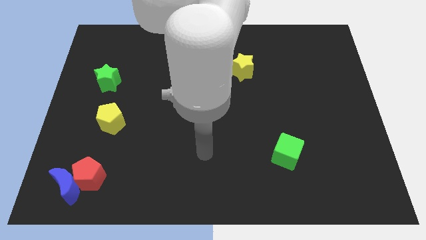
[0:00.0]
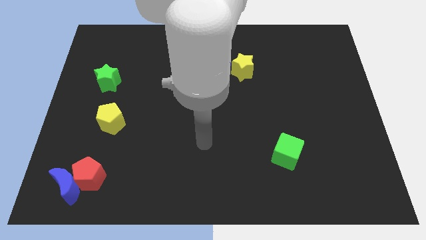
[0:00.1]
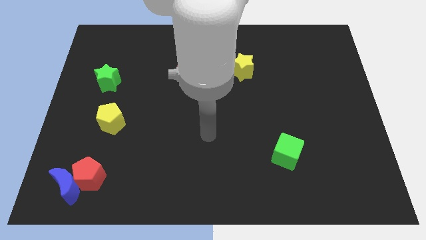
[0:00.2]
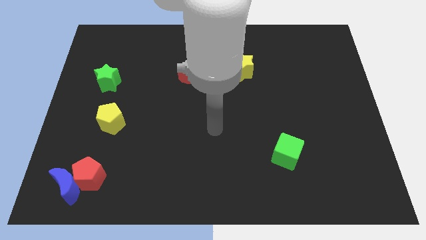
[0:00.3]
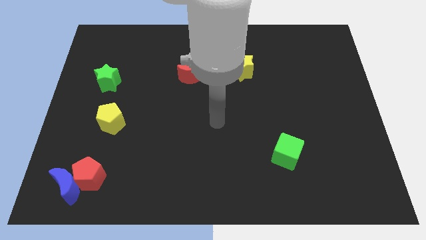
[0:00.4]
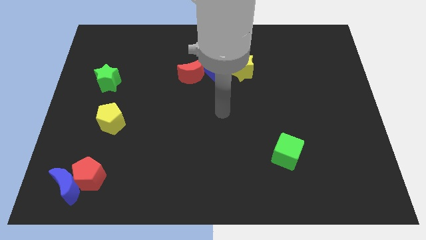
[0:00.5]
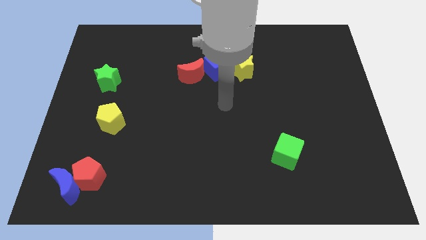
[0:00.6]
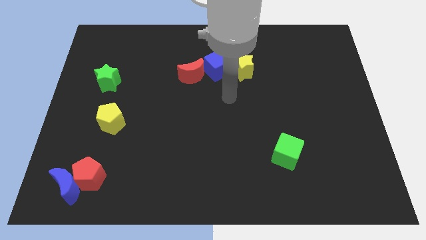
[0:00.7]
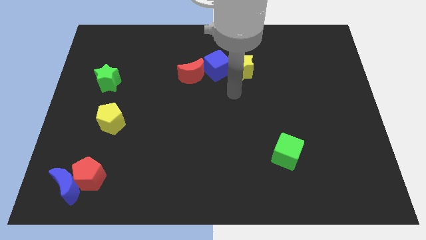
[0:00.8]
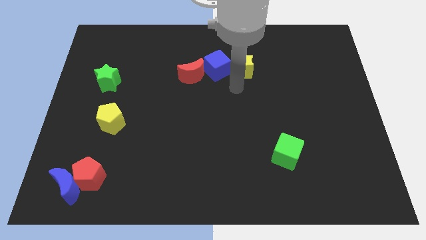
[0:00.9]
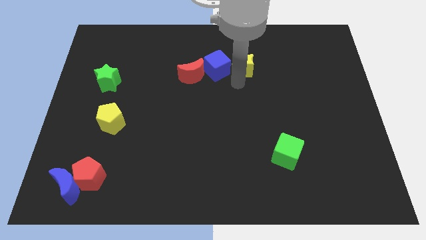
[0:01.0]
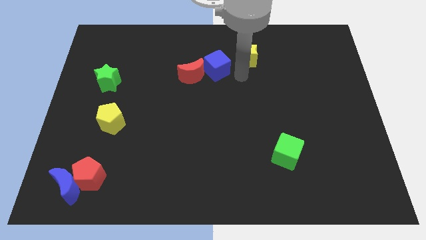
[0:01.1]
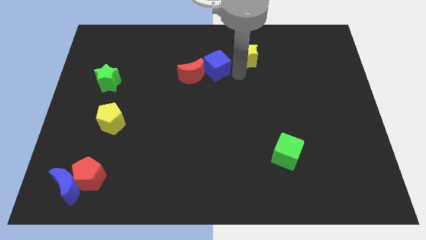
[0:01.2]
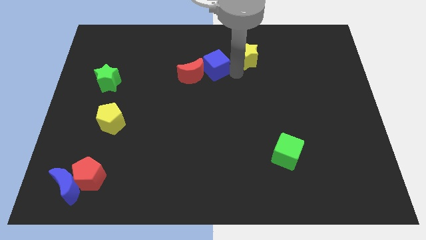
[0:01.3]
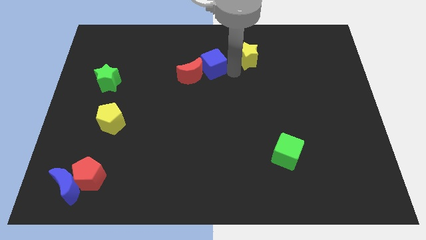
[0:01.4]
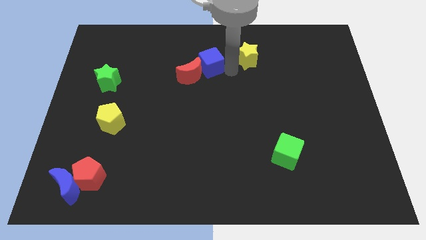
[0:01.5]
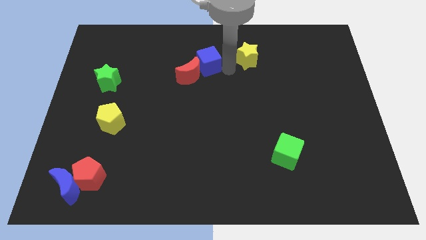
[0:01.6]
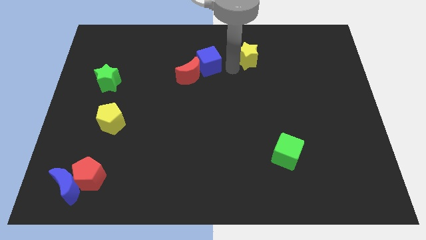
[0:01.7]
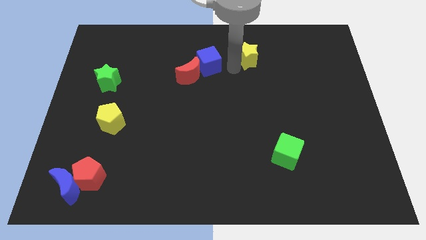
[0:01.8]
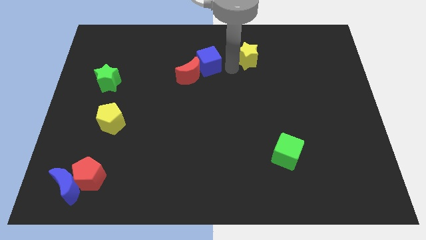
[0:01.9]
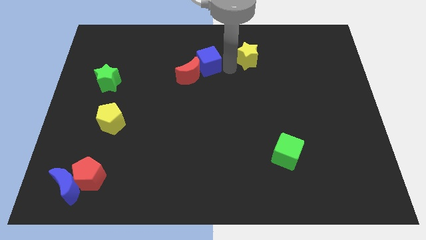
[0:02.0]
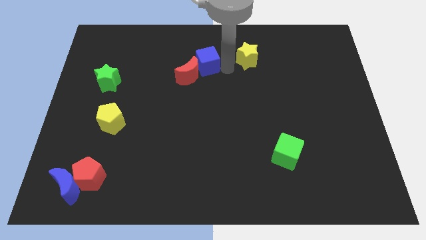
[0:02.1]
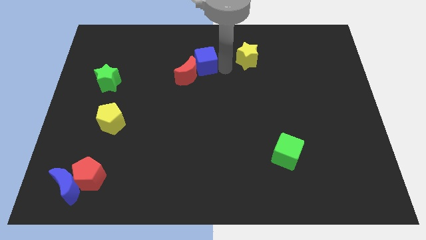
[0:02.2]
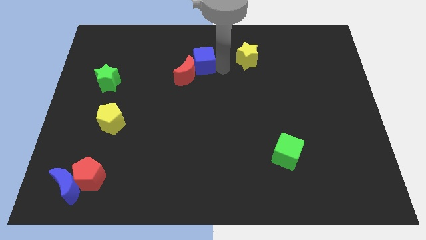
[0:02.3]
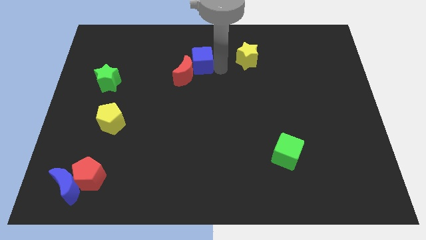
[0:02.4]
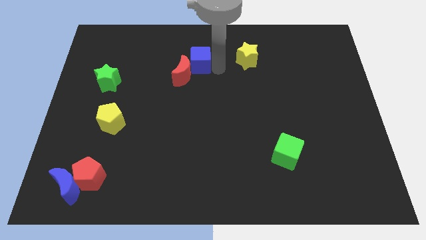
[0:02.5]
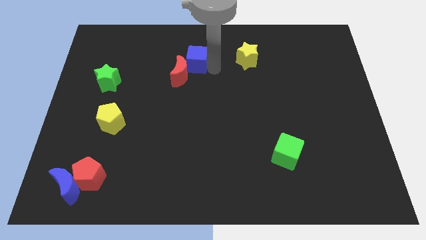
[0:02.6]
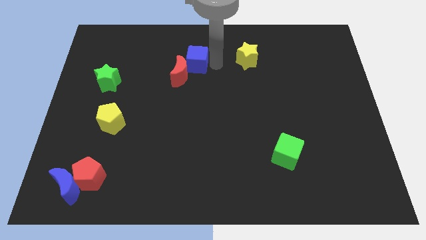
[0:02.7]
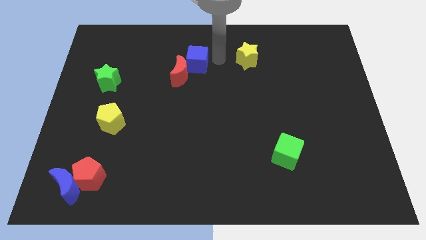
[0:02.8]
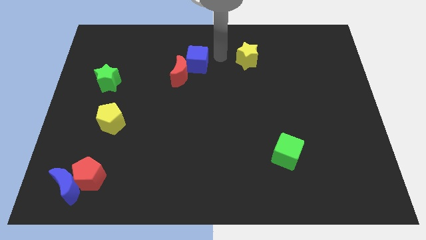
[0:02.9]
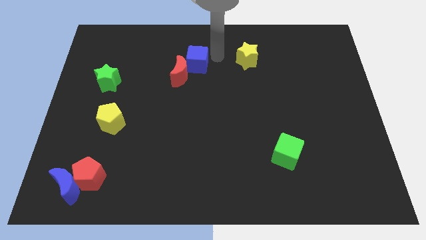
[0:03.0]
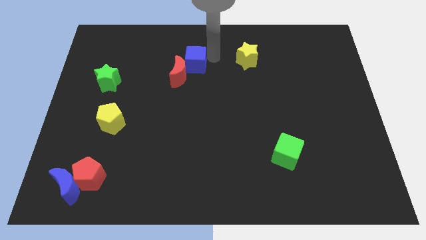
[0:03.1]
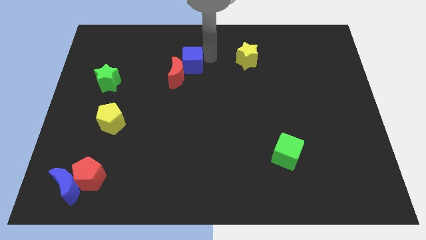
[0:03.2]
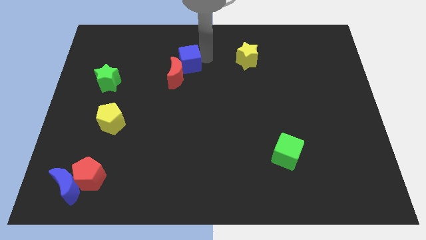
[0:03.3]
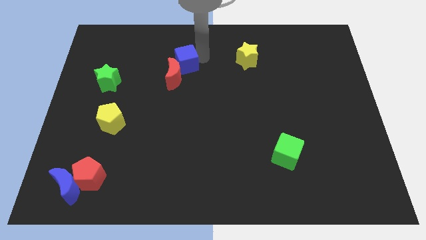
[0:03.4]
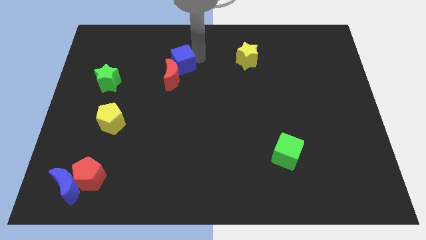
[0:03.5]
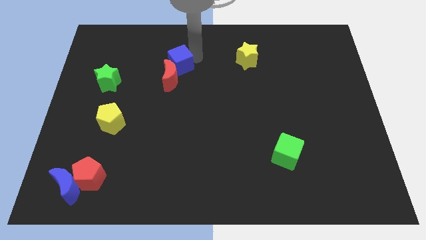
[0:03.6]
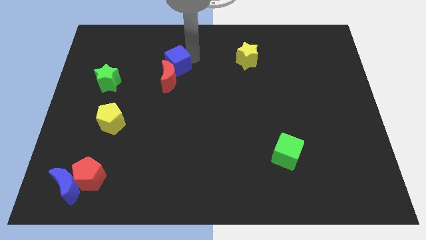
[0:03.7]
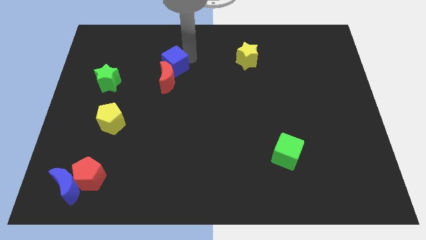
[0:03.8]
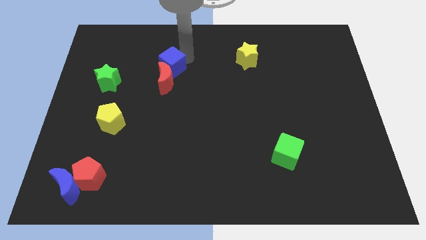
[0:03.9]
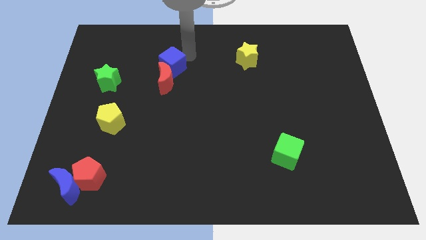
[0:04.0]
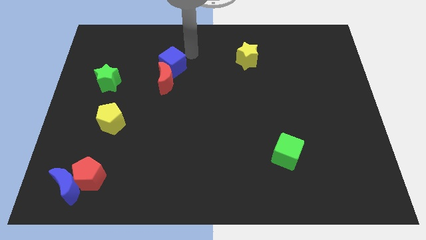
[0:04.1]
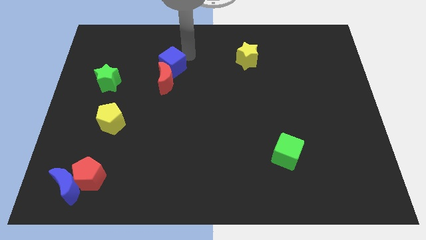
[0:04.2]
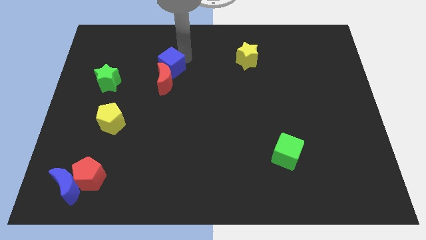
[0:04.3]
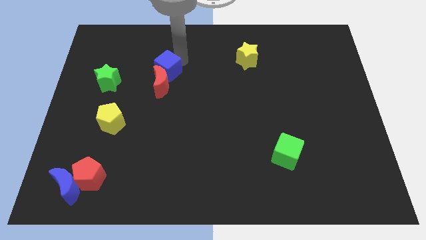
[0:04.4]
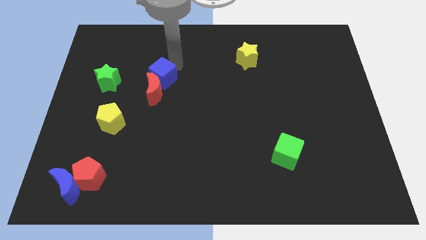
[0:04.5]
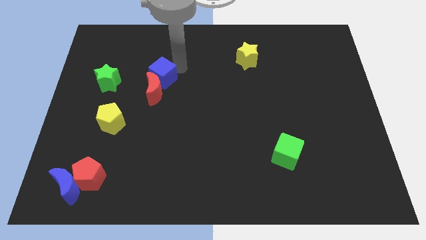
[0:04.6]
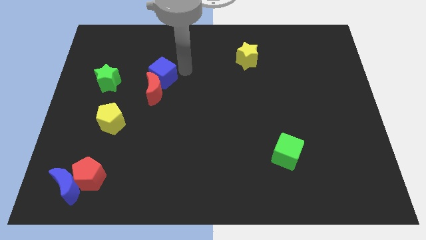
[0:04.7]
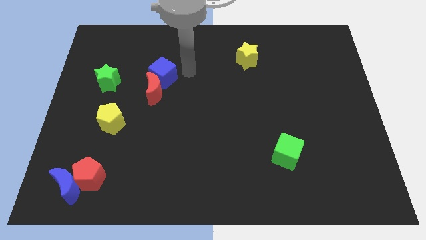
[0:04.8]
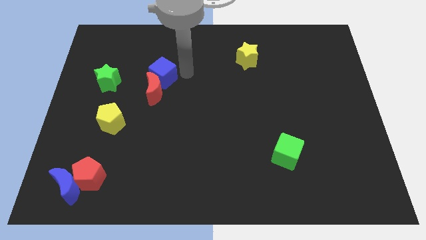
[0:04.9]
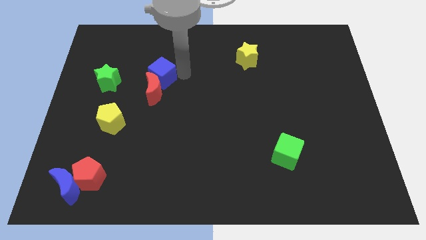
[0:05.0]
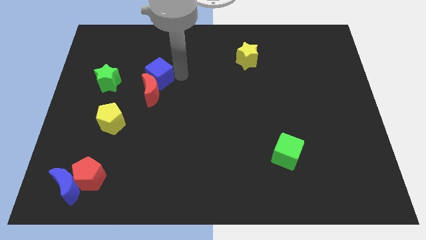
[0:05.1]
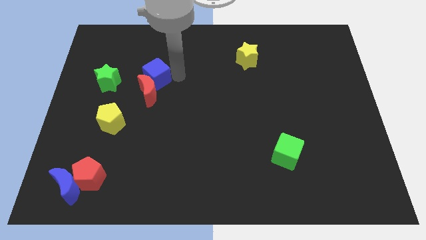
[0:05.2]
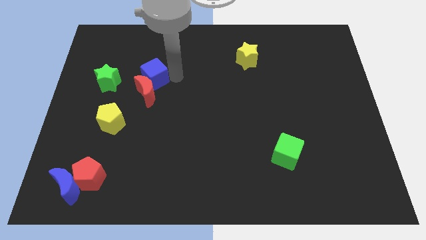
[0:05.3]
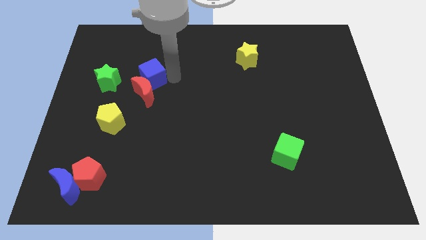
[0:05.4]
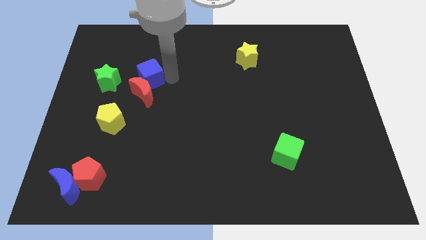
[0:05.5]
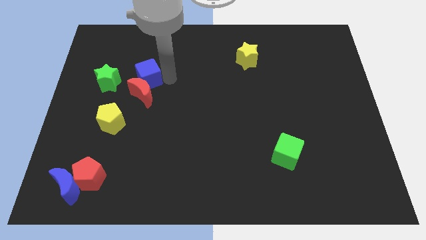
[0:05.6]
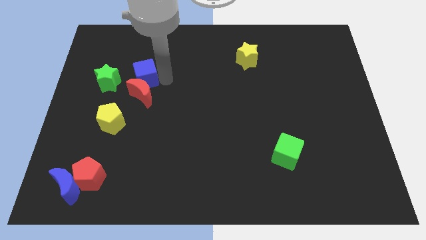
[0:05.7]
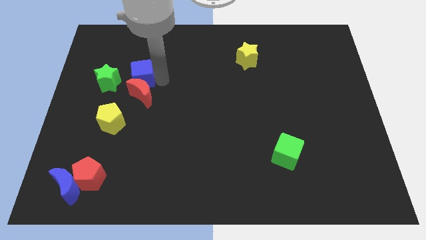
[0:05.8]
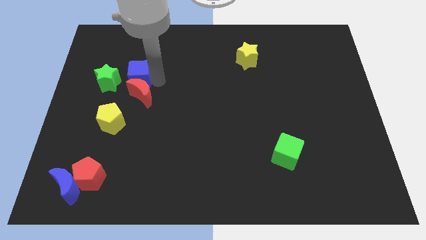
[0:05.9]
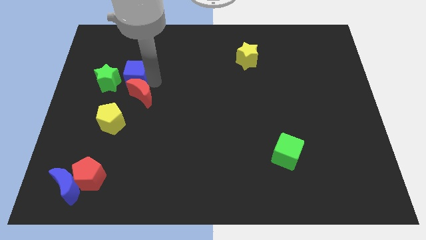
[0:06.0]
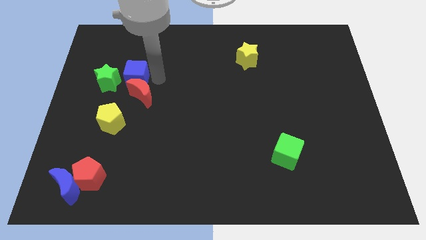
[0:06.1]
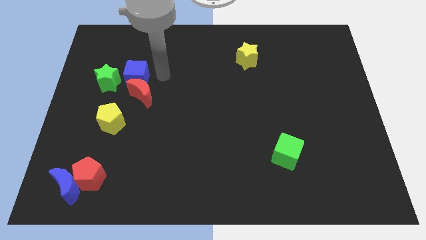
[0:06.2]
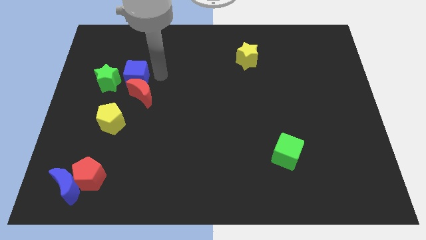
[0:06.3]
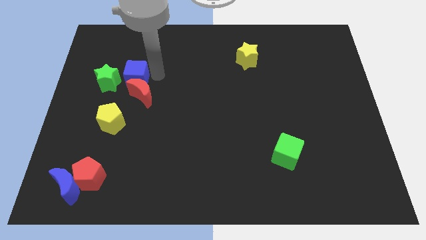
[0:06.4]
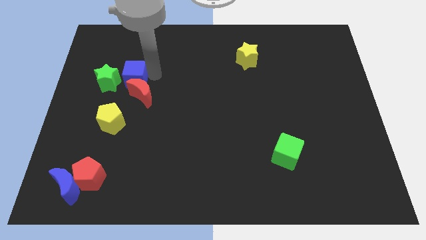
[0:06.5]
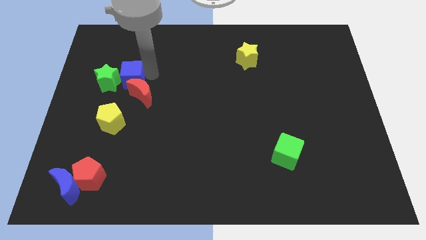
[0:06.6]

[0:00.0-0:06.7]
push the blue cube towards the green star
